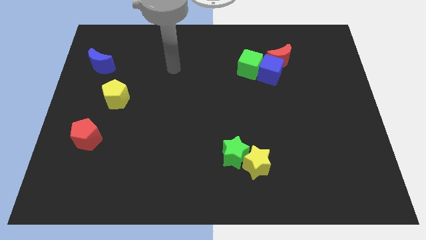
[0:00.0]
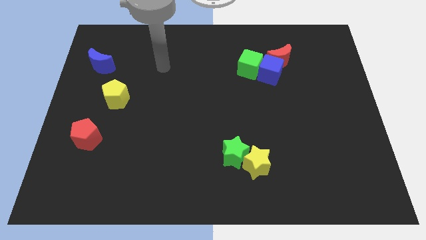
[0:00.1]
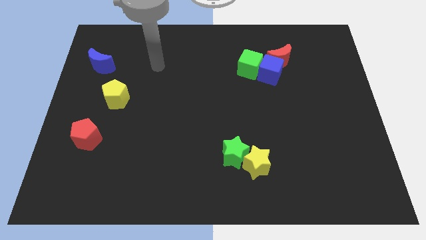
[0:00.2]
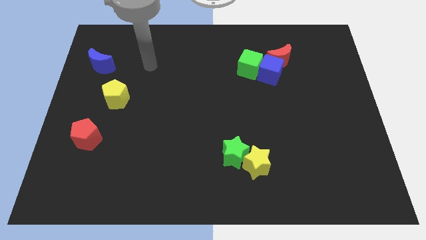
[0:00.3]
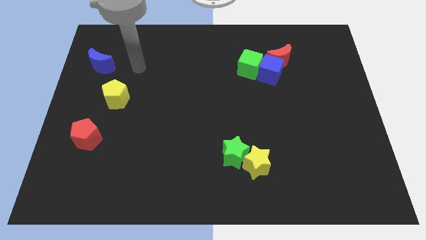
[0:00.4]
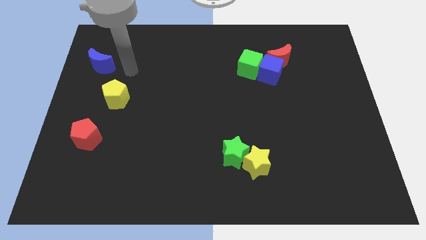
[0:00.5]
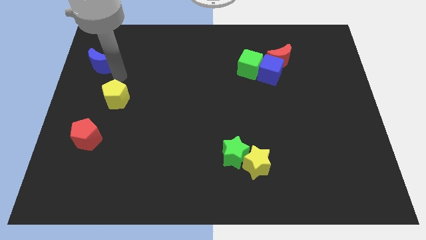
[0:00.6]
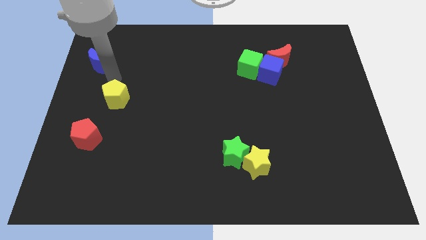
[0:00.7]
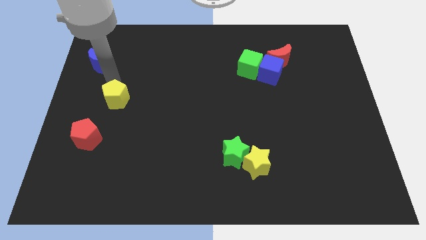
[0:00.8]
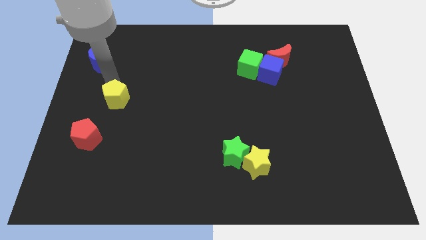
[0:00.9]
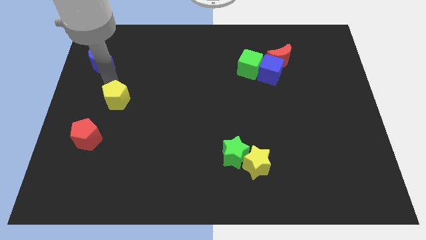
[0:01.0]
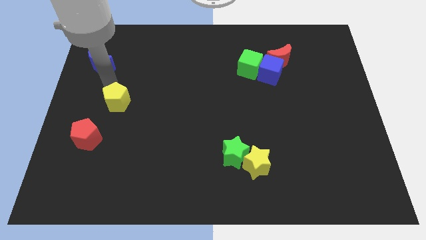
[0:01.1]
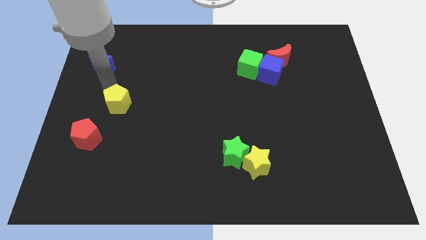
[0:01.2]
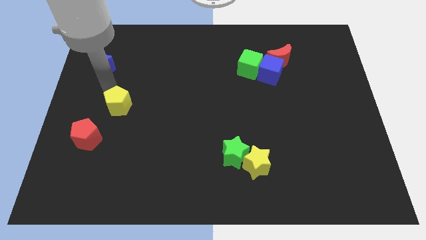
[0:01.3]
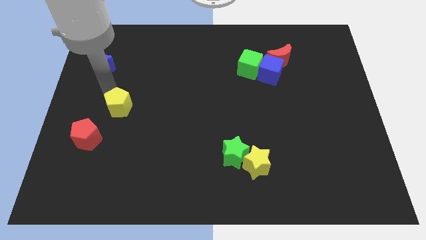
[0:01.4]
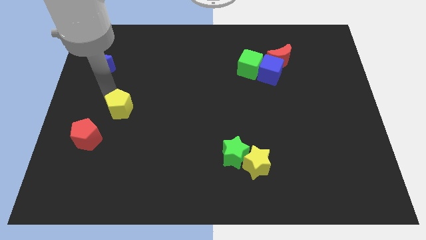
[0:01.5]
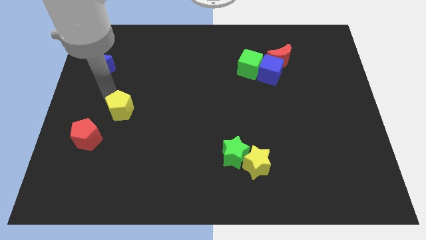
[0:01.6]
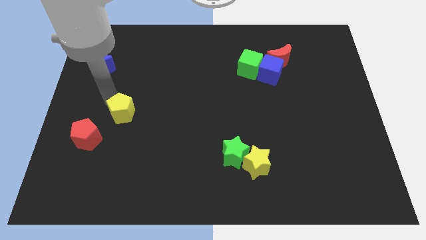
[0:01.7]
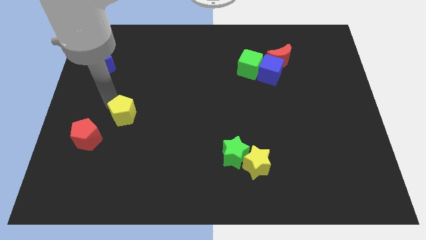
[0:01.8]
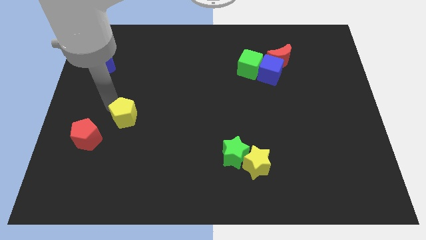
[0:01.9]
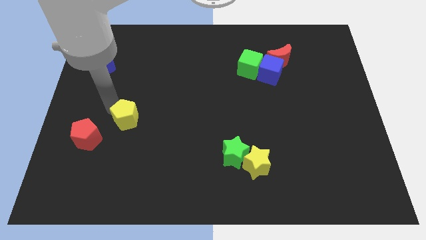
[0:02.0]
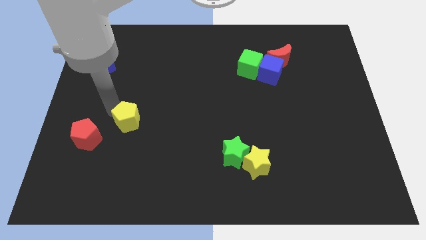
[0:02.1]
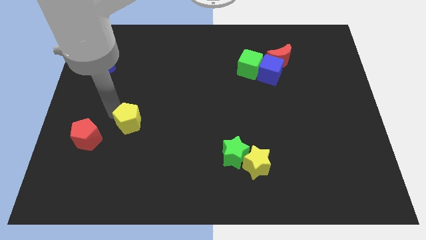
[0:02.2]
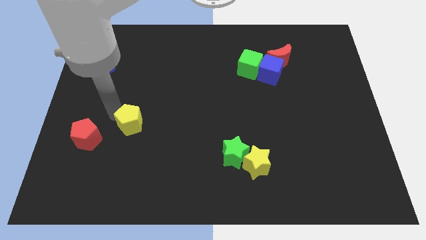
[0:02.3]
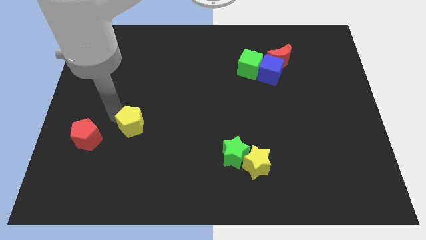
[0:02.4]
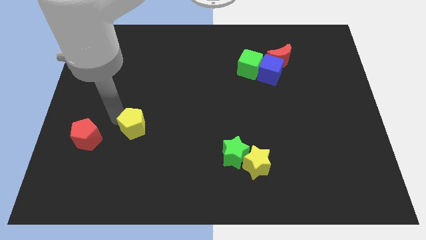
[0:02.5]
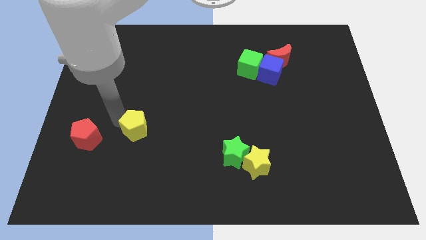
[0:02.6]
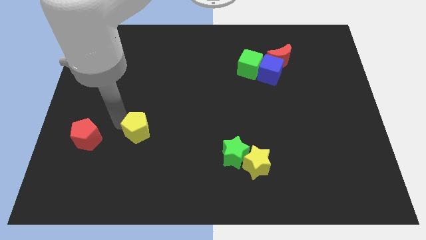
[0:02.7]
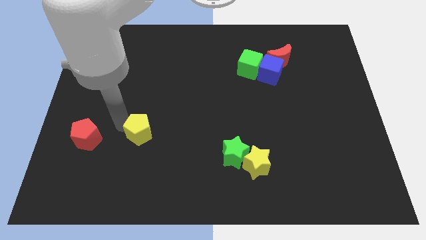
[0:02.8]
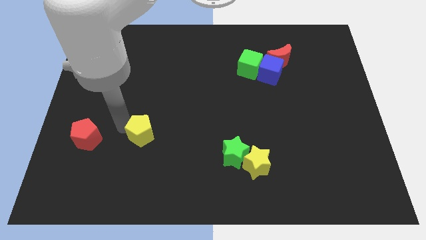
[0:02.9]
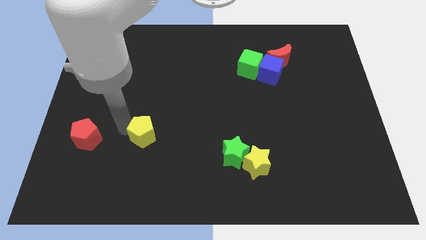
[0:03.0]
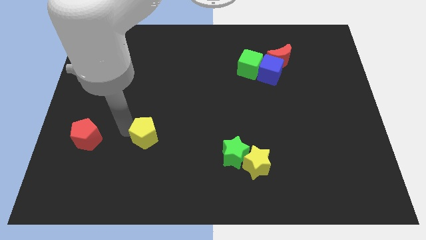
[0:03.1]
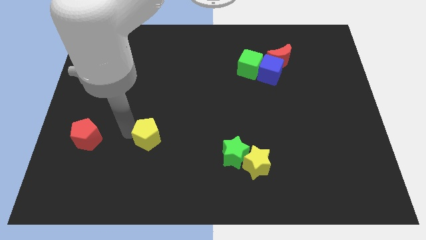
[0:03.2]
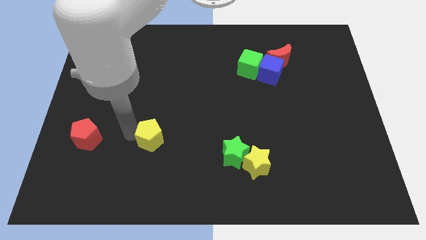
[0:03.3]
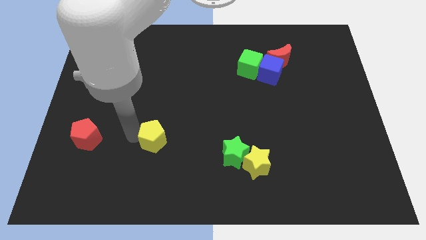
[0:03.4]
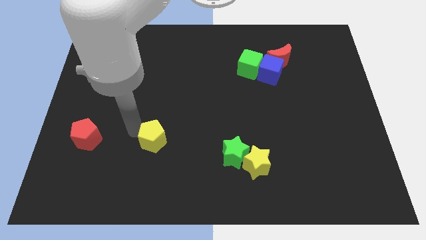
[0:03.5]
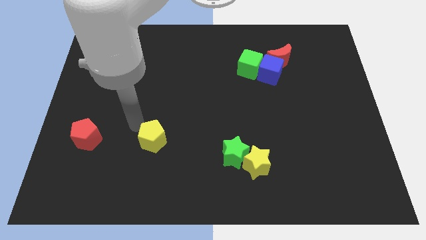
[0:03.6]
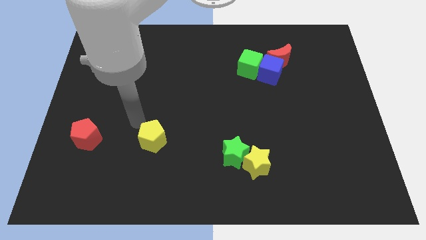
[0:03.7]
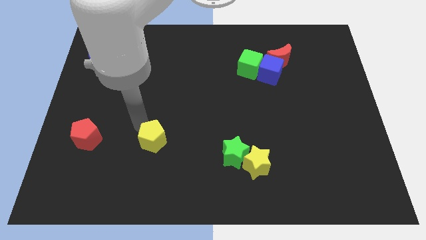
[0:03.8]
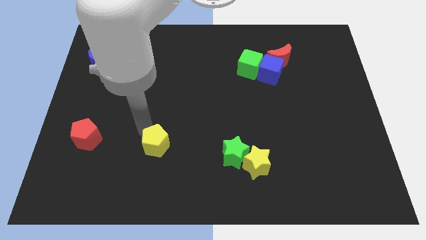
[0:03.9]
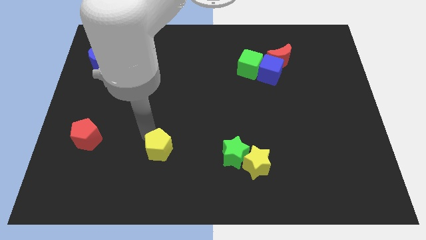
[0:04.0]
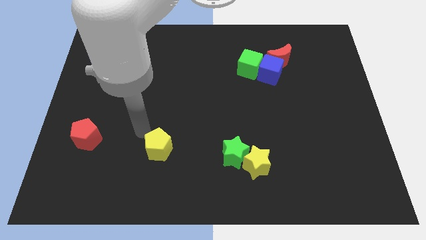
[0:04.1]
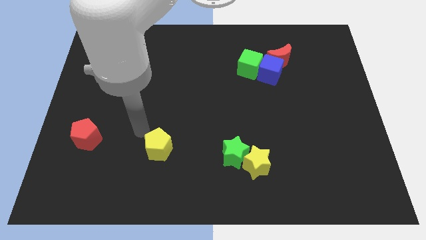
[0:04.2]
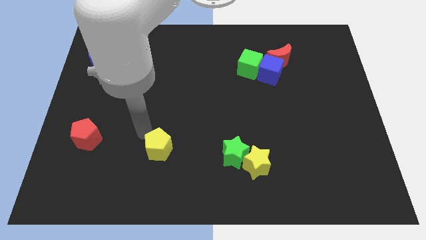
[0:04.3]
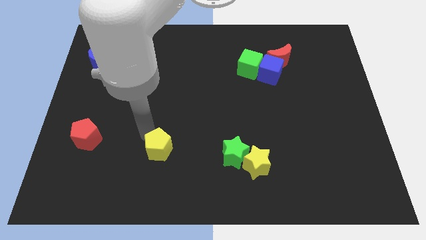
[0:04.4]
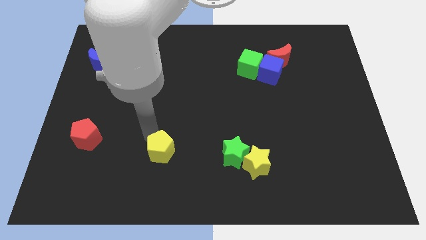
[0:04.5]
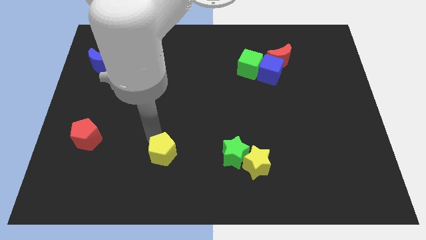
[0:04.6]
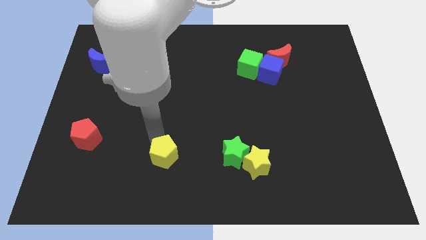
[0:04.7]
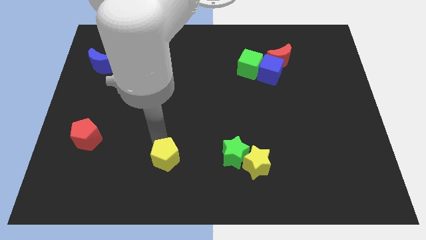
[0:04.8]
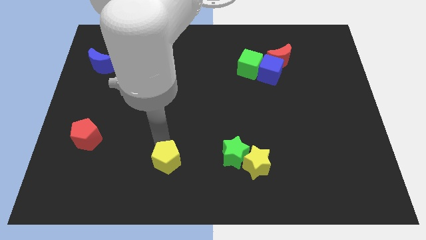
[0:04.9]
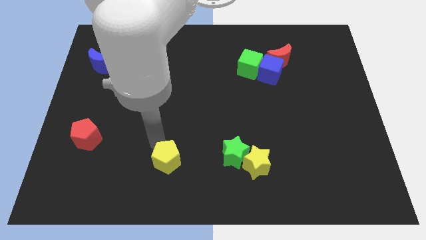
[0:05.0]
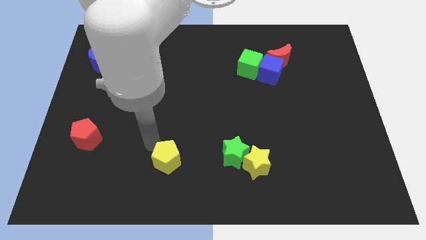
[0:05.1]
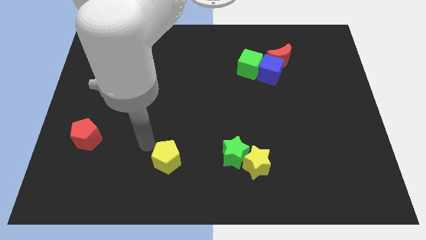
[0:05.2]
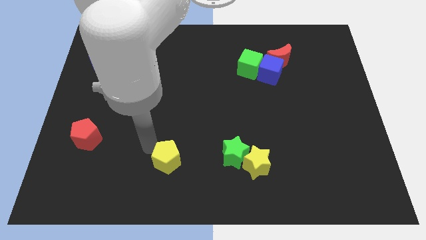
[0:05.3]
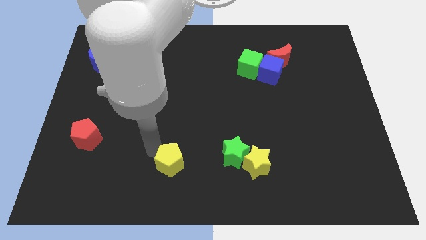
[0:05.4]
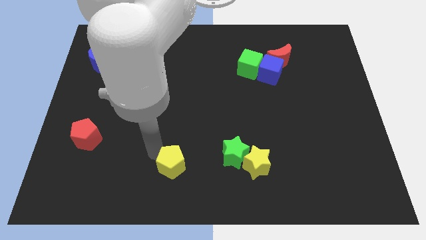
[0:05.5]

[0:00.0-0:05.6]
push the yellow pentagon to the bottom side

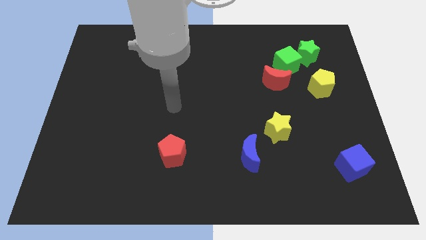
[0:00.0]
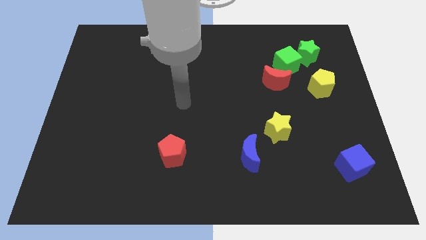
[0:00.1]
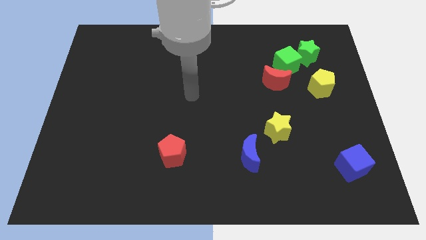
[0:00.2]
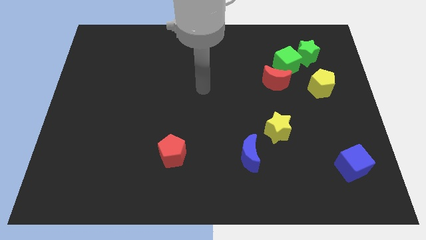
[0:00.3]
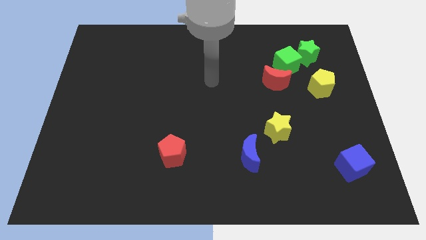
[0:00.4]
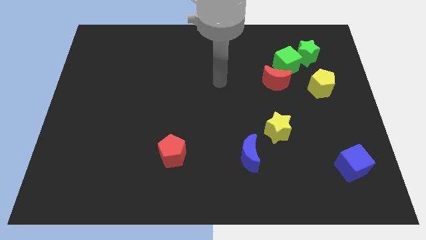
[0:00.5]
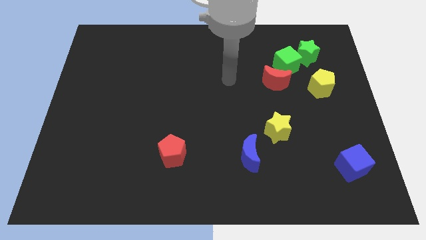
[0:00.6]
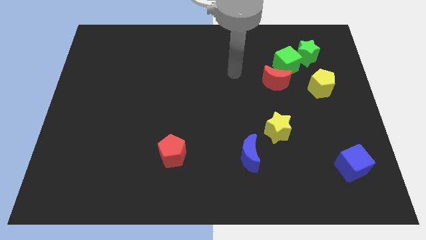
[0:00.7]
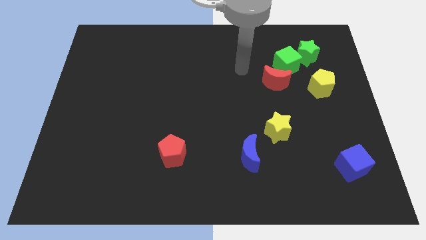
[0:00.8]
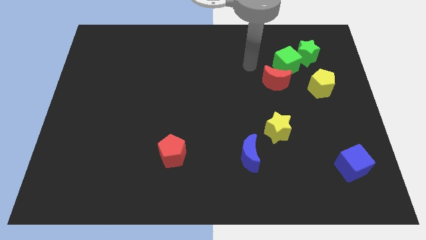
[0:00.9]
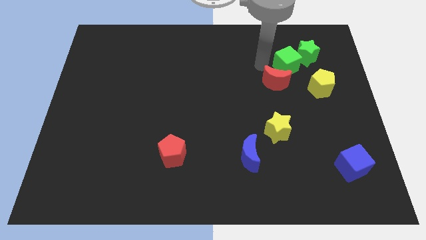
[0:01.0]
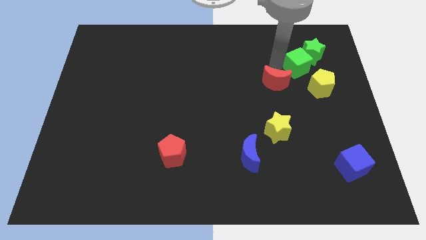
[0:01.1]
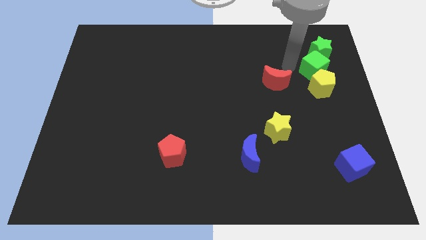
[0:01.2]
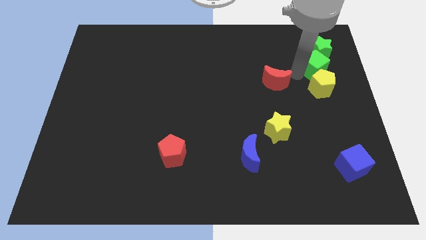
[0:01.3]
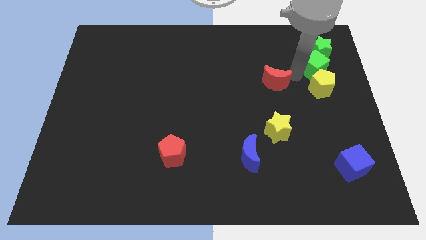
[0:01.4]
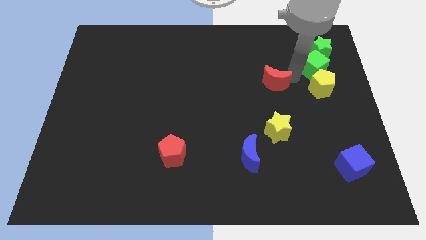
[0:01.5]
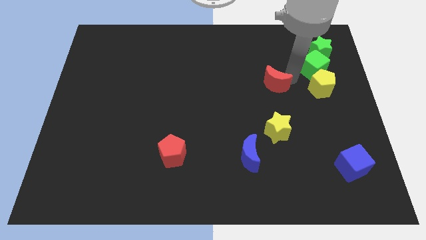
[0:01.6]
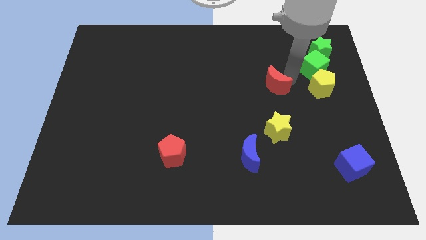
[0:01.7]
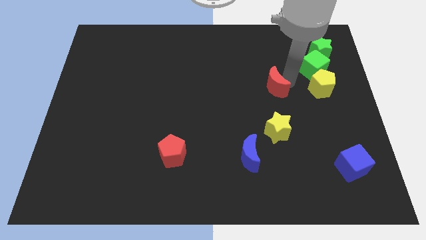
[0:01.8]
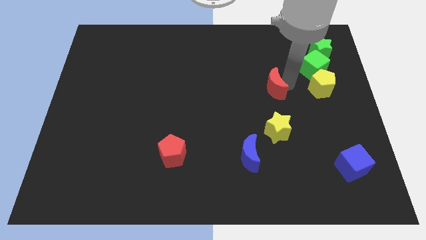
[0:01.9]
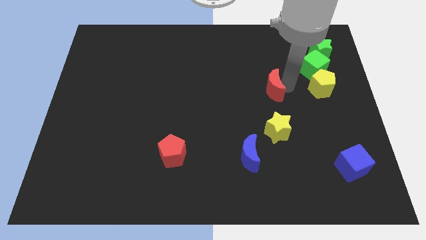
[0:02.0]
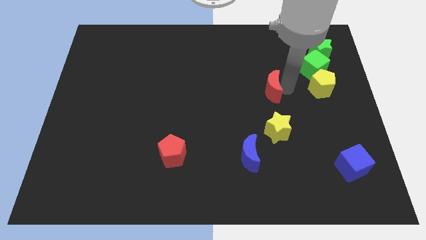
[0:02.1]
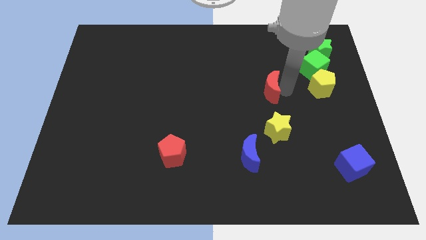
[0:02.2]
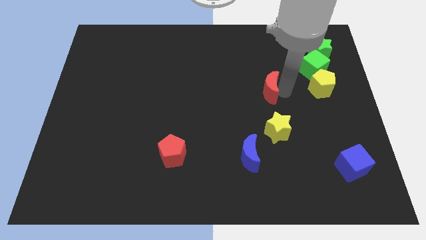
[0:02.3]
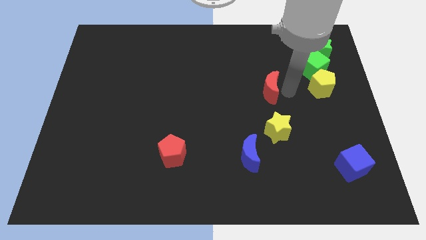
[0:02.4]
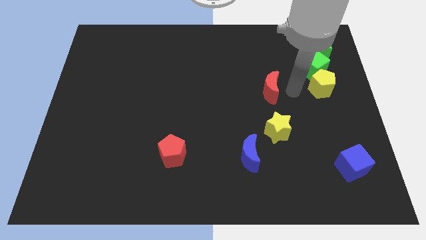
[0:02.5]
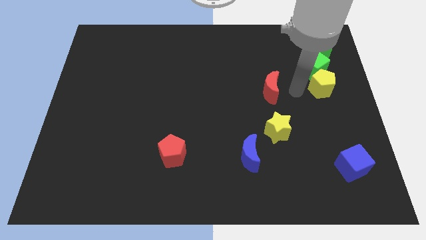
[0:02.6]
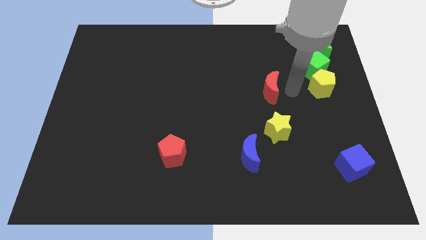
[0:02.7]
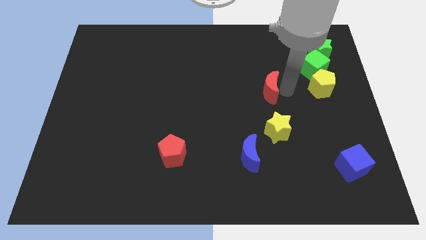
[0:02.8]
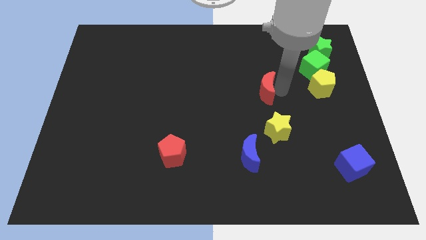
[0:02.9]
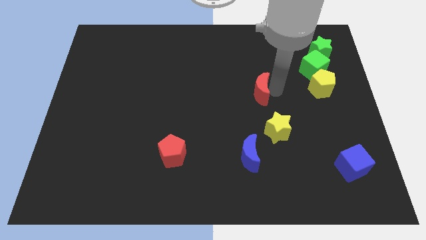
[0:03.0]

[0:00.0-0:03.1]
put the red moon to the middle
